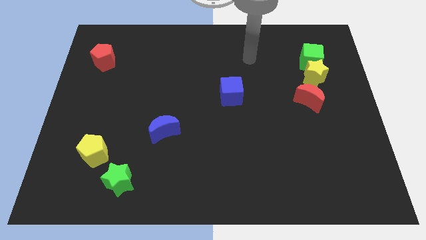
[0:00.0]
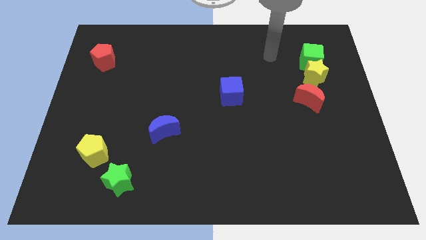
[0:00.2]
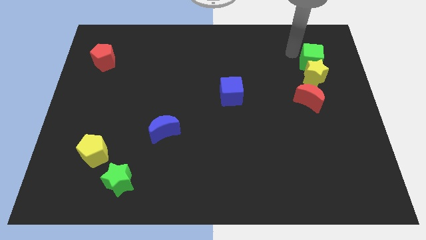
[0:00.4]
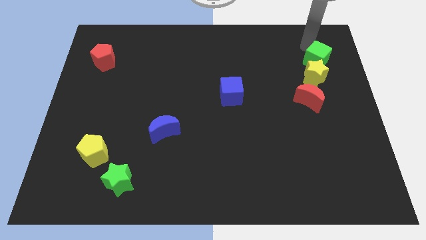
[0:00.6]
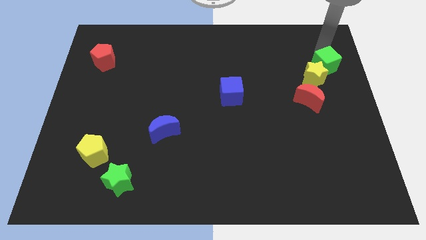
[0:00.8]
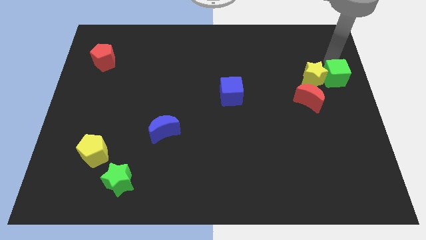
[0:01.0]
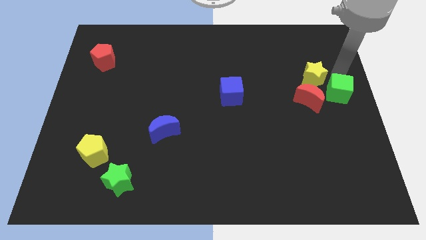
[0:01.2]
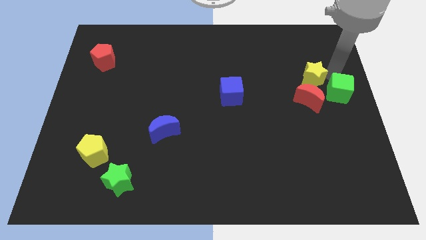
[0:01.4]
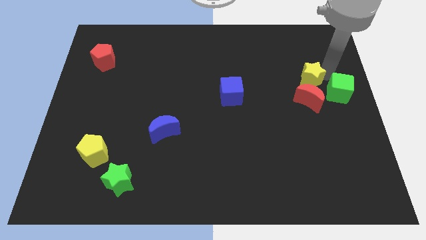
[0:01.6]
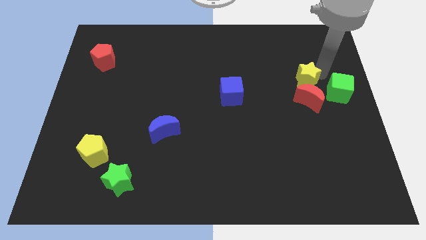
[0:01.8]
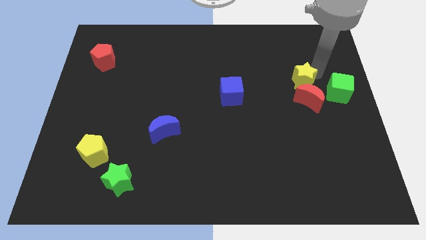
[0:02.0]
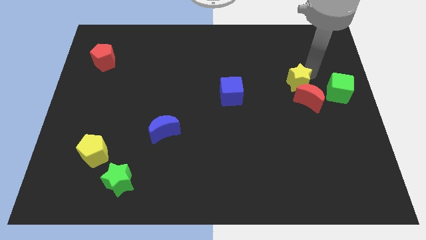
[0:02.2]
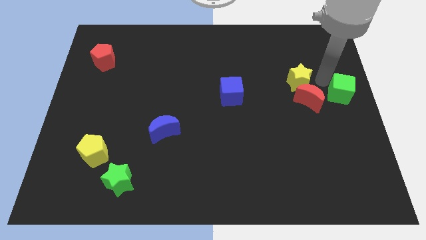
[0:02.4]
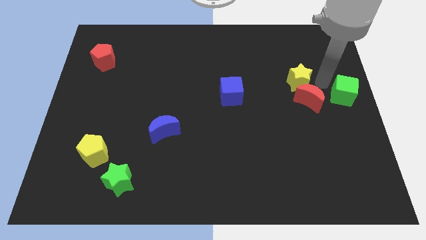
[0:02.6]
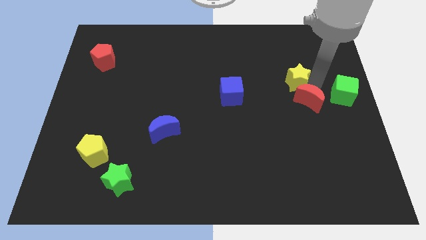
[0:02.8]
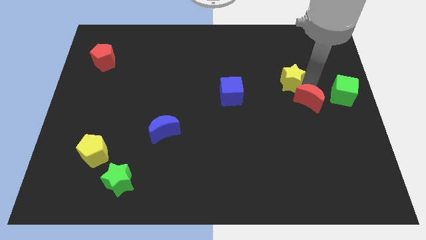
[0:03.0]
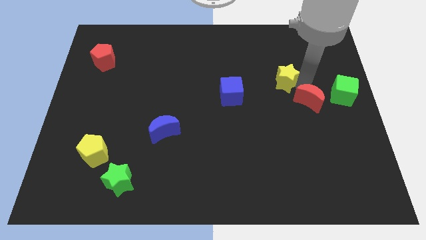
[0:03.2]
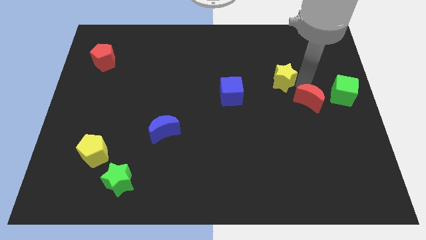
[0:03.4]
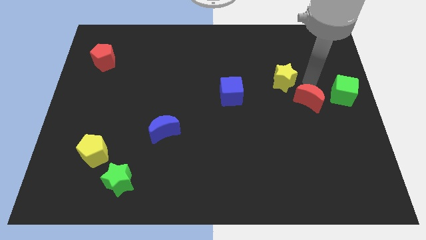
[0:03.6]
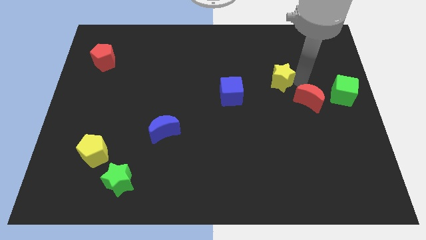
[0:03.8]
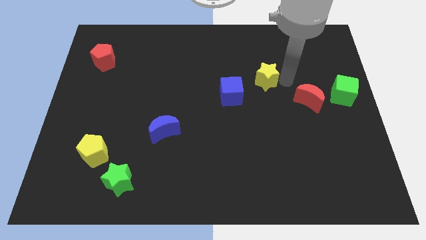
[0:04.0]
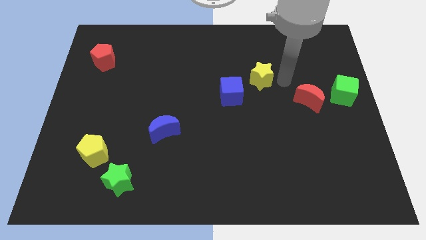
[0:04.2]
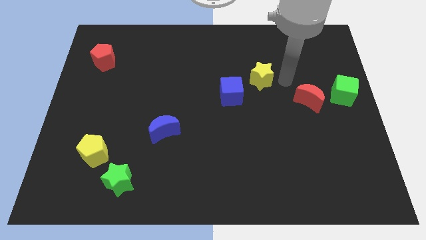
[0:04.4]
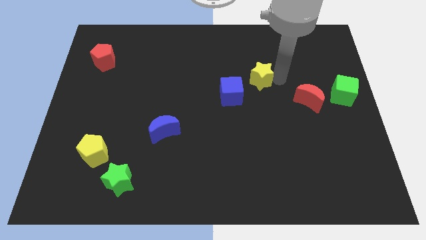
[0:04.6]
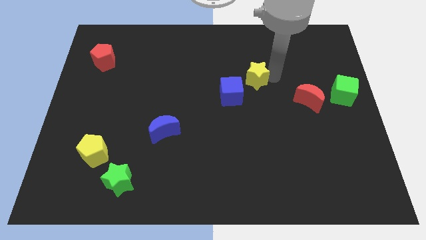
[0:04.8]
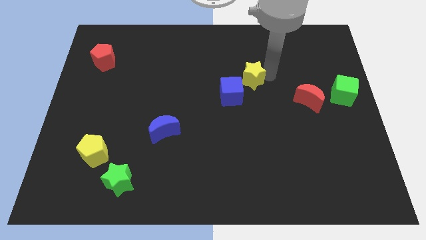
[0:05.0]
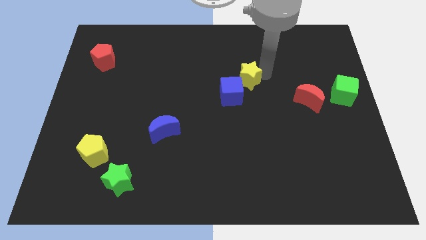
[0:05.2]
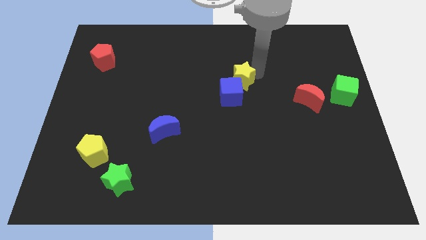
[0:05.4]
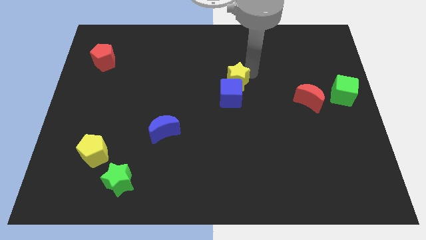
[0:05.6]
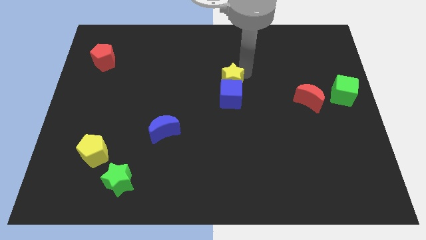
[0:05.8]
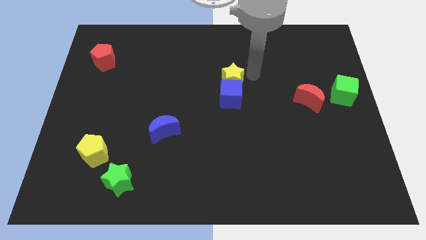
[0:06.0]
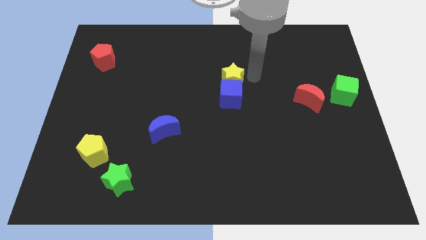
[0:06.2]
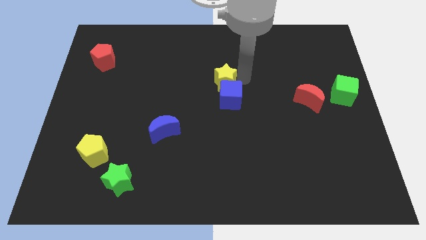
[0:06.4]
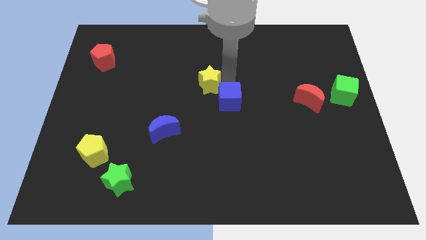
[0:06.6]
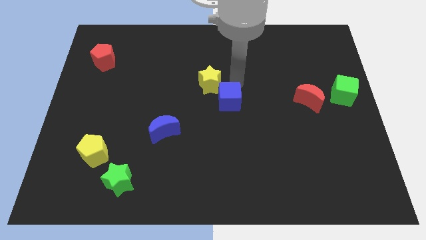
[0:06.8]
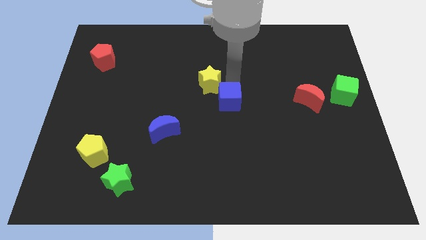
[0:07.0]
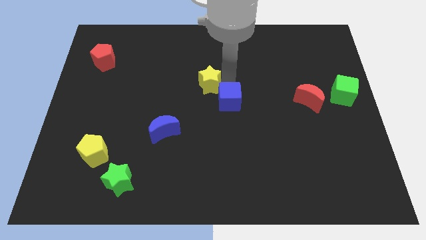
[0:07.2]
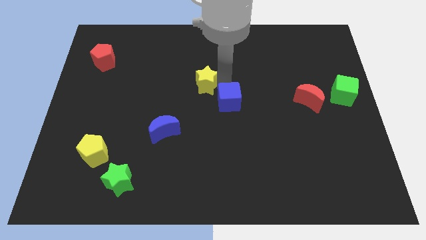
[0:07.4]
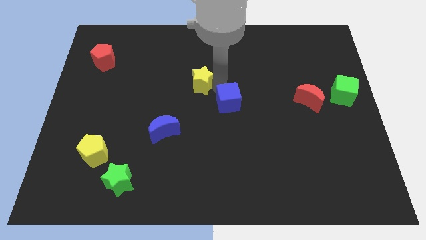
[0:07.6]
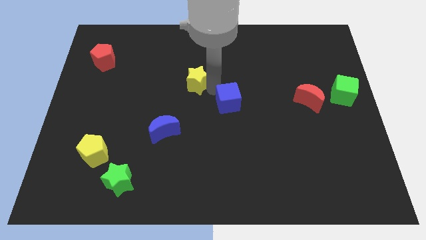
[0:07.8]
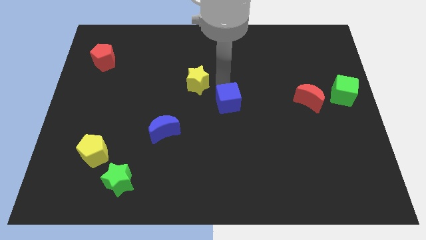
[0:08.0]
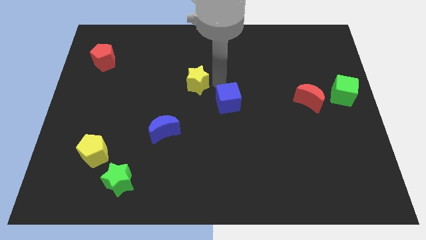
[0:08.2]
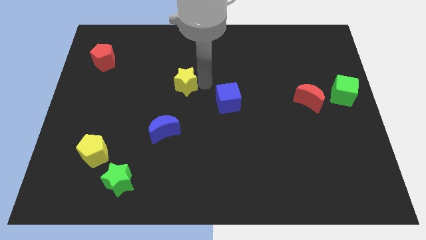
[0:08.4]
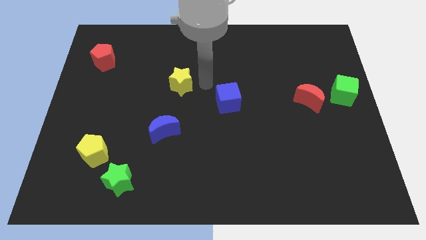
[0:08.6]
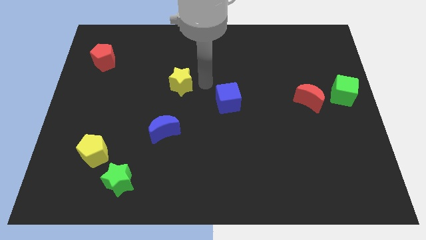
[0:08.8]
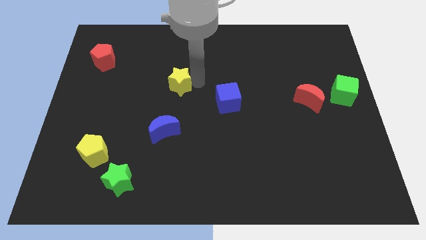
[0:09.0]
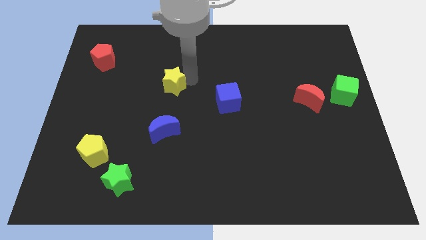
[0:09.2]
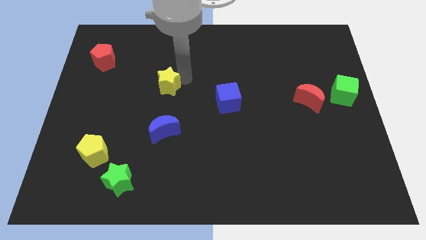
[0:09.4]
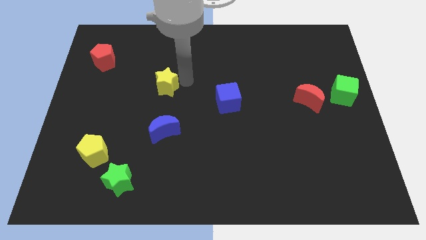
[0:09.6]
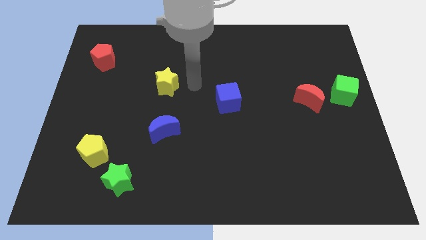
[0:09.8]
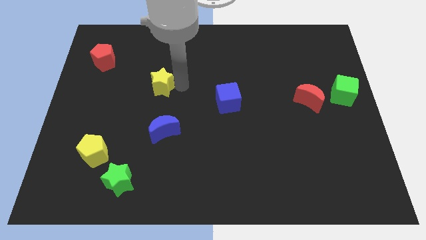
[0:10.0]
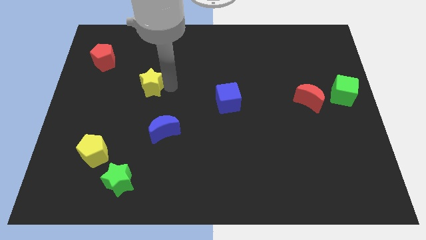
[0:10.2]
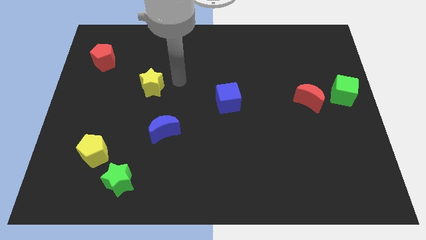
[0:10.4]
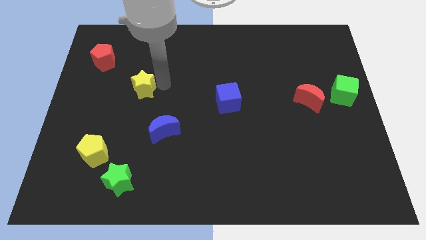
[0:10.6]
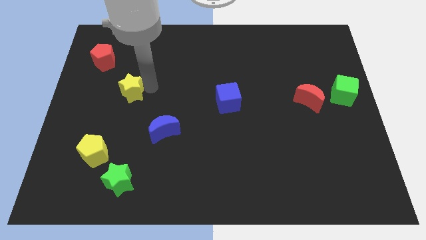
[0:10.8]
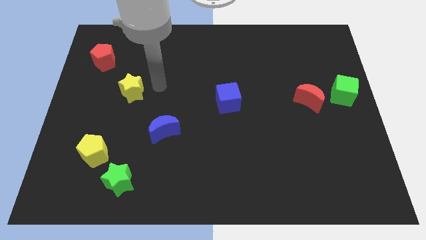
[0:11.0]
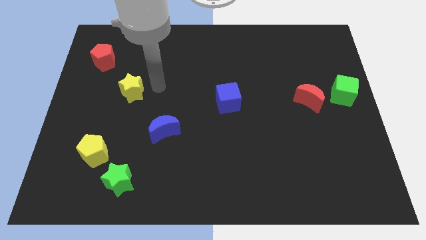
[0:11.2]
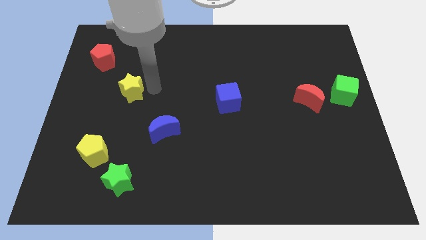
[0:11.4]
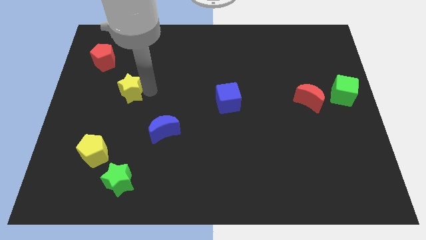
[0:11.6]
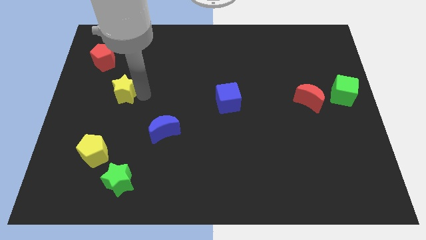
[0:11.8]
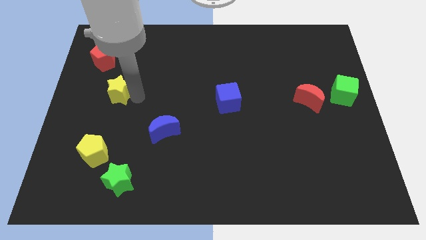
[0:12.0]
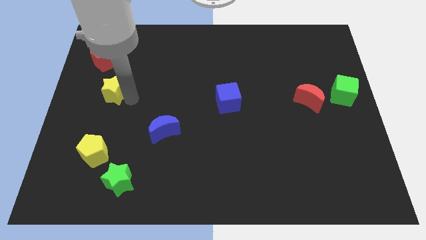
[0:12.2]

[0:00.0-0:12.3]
move the yellow star to the bottom side of the red pentagon

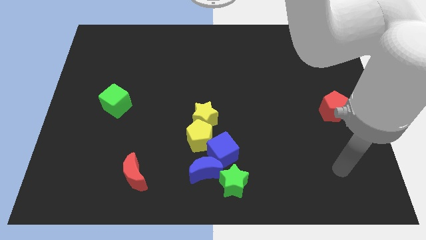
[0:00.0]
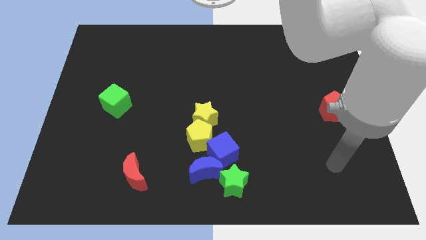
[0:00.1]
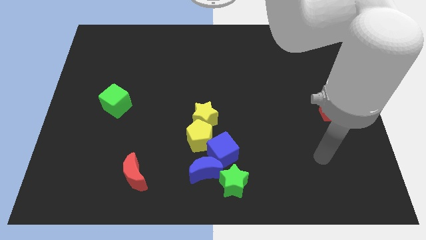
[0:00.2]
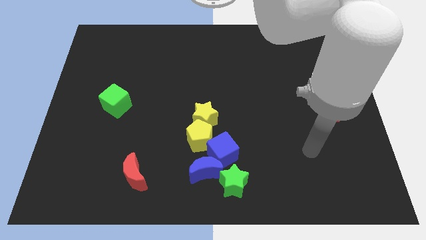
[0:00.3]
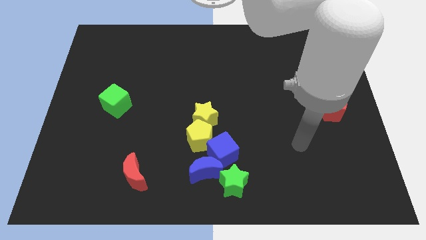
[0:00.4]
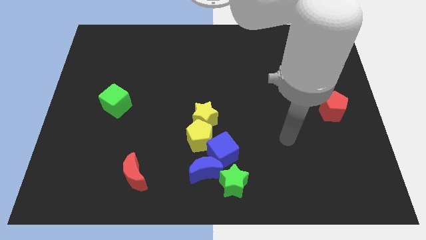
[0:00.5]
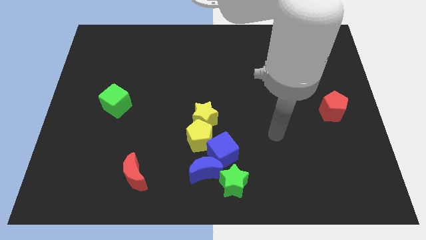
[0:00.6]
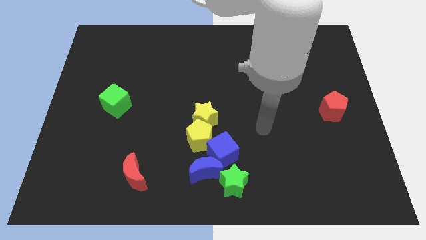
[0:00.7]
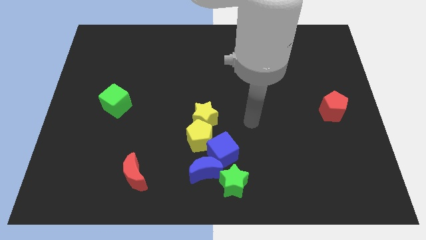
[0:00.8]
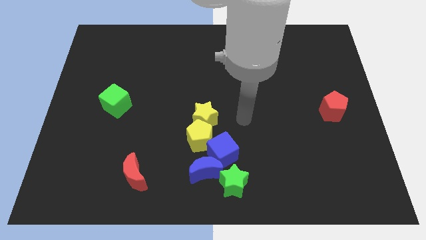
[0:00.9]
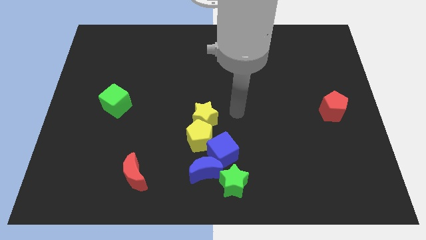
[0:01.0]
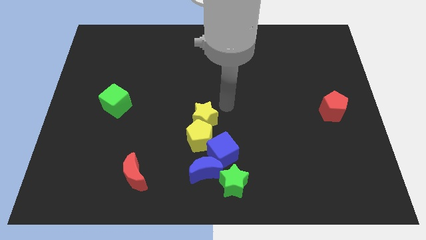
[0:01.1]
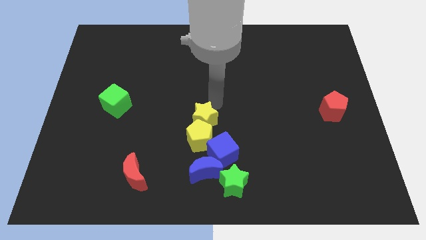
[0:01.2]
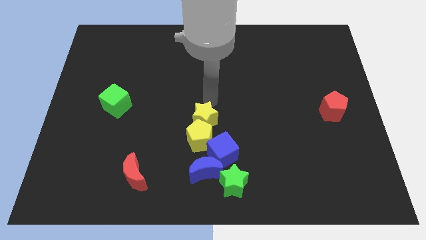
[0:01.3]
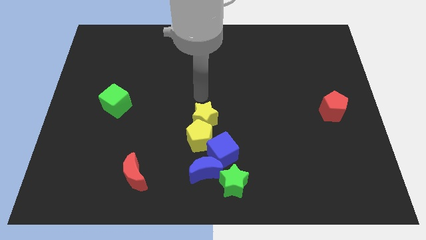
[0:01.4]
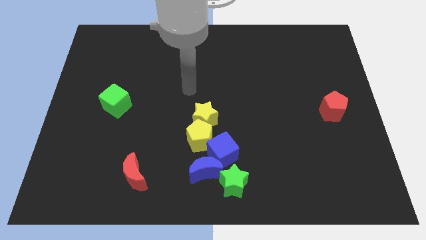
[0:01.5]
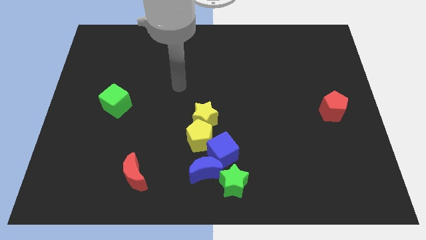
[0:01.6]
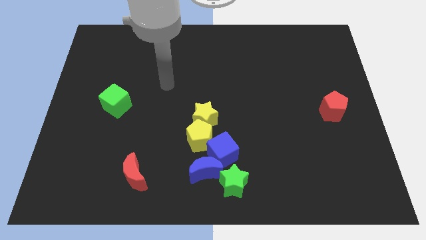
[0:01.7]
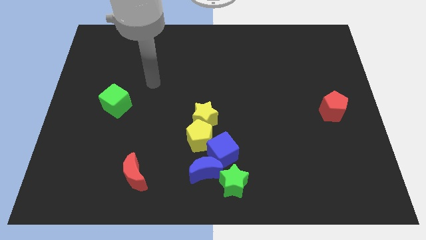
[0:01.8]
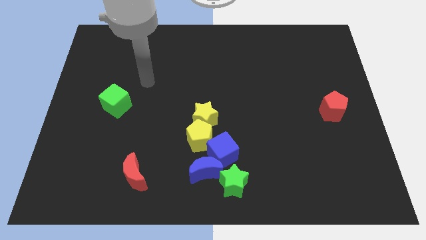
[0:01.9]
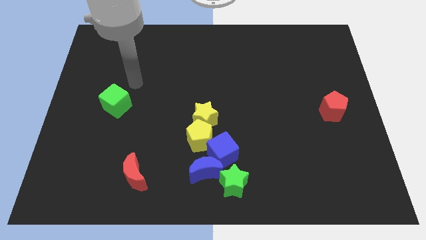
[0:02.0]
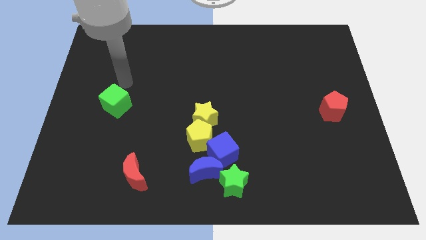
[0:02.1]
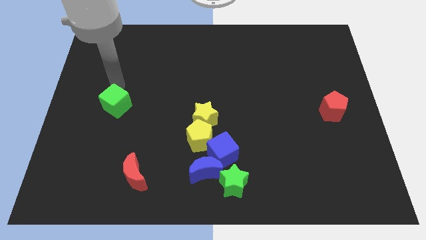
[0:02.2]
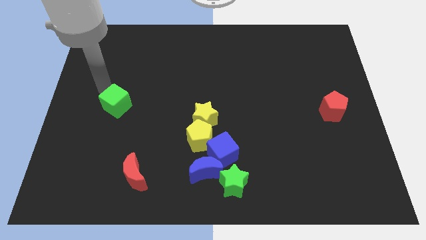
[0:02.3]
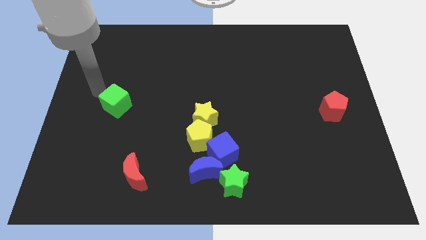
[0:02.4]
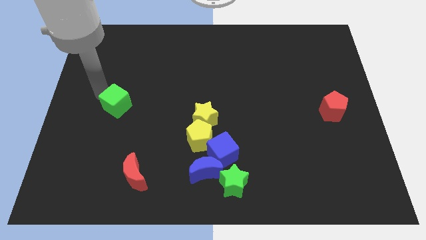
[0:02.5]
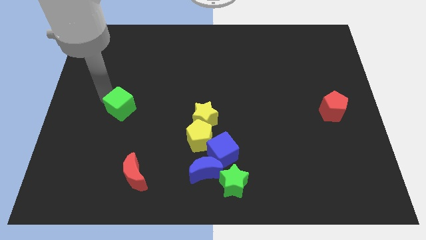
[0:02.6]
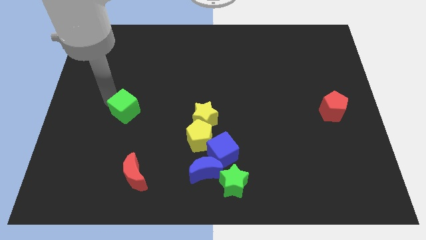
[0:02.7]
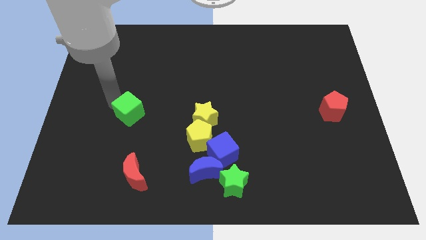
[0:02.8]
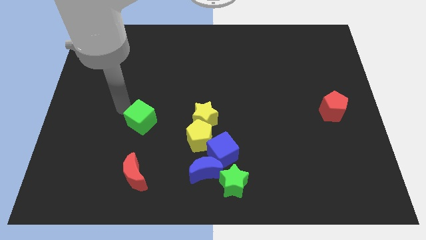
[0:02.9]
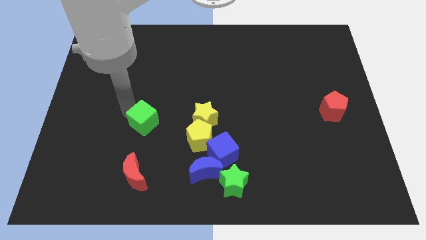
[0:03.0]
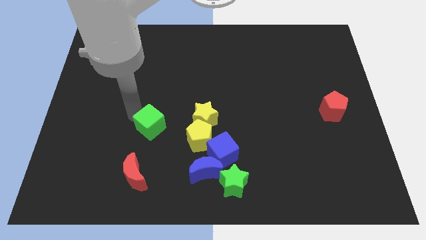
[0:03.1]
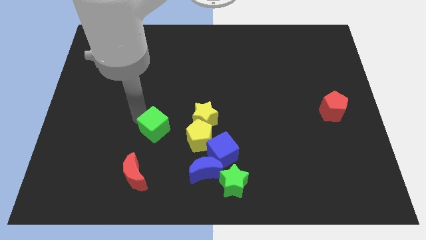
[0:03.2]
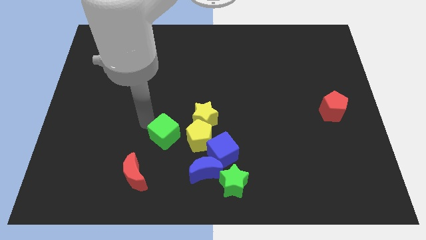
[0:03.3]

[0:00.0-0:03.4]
move the green cube to the top left side of the blue moon
